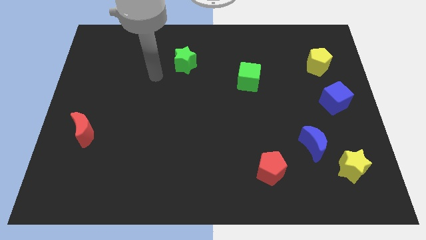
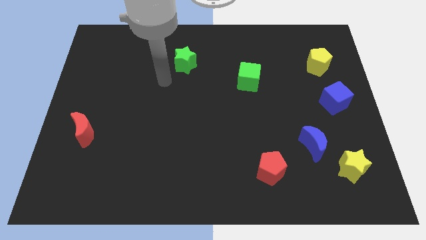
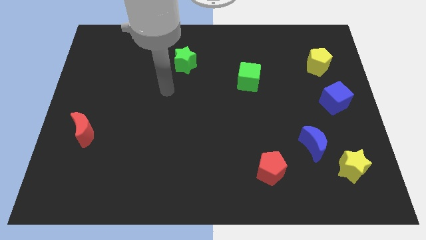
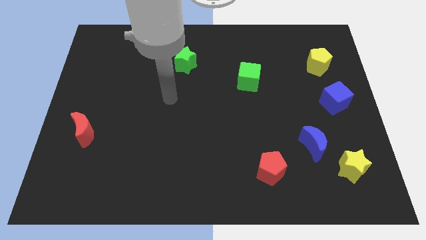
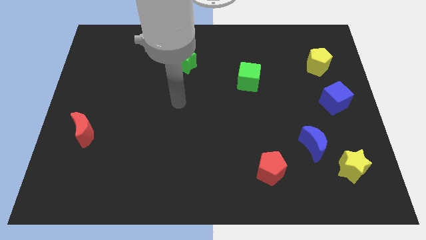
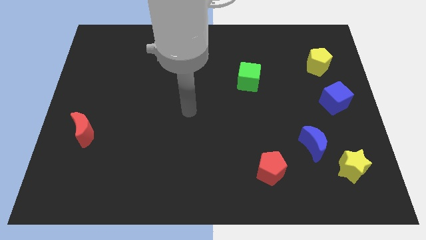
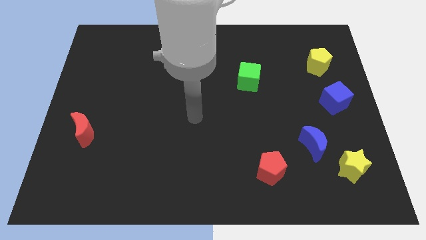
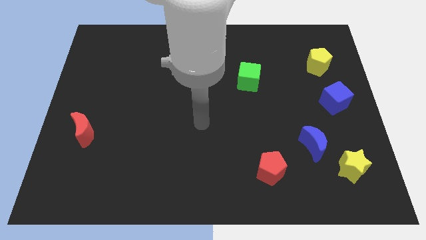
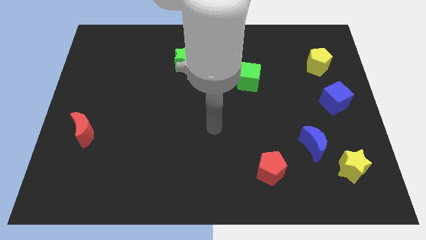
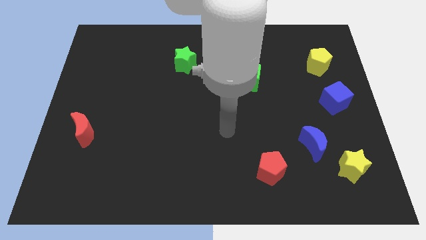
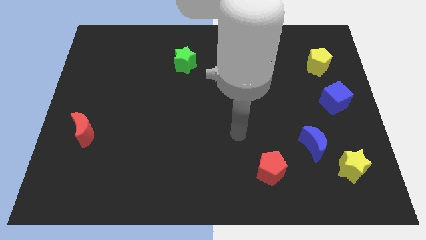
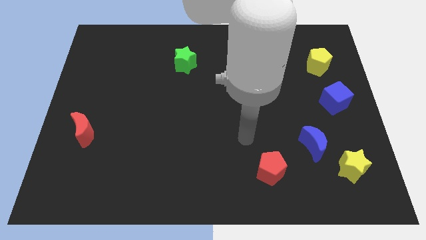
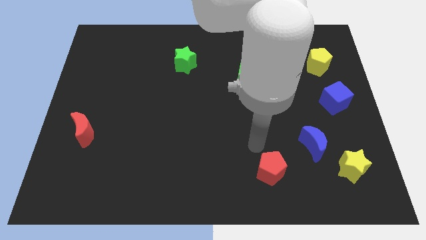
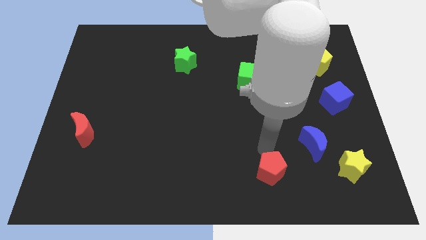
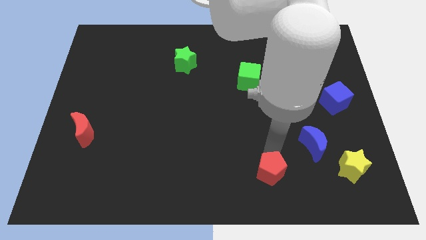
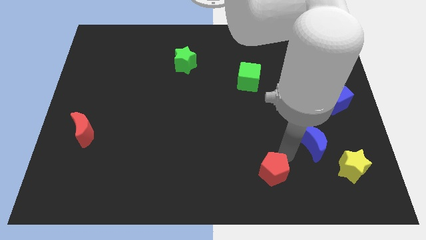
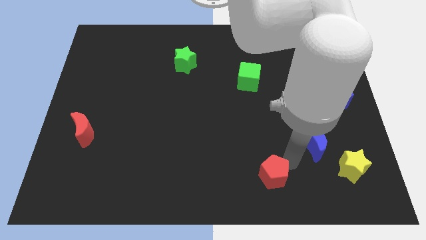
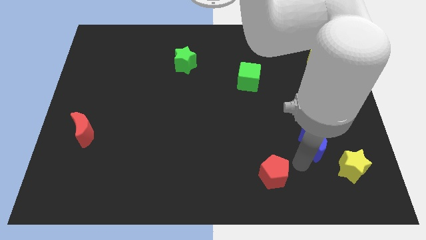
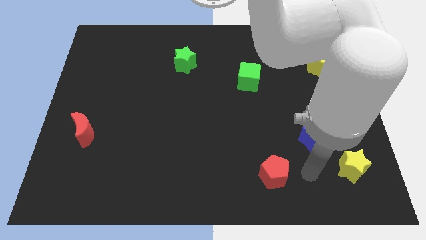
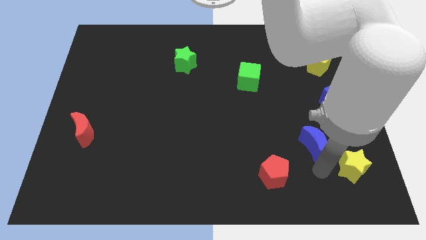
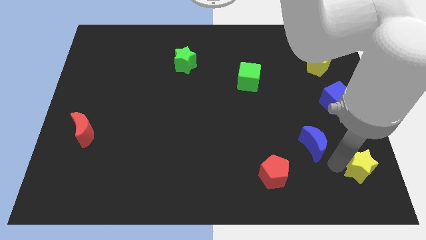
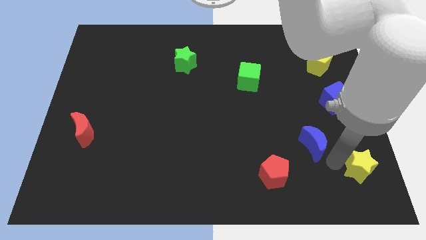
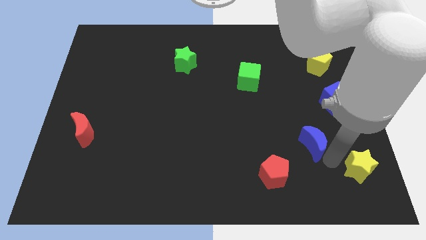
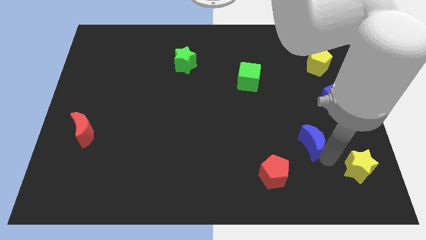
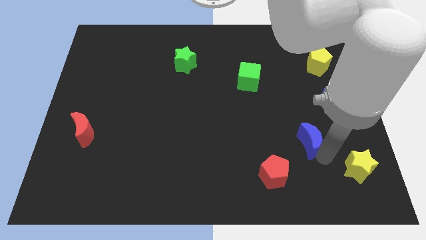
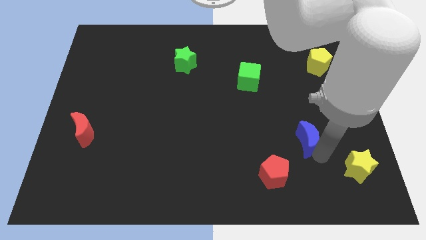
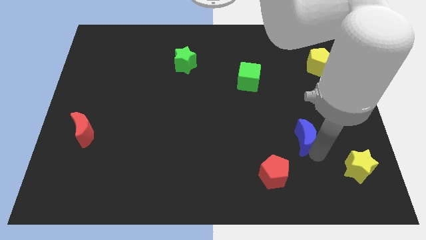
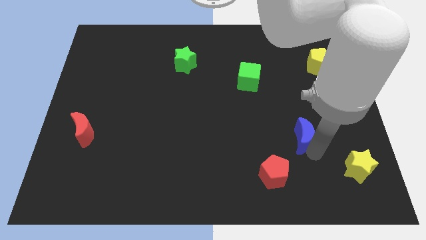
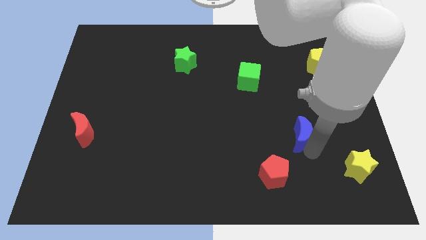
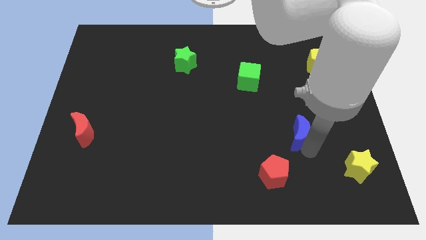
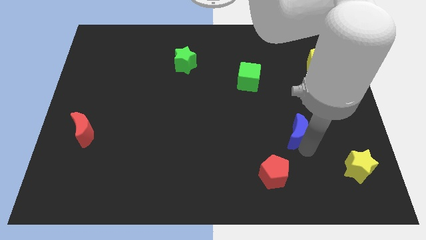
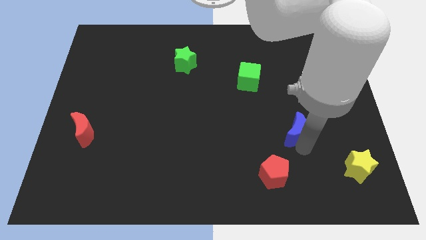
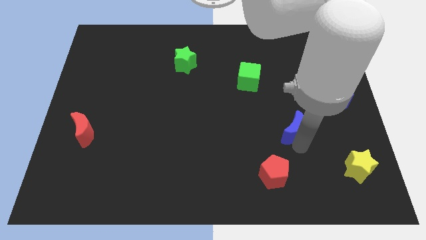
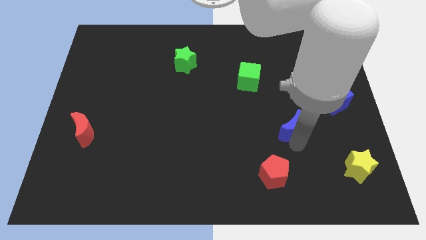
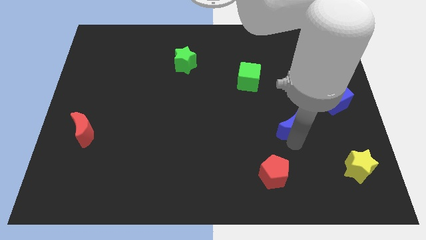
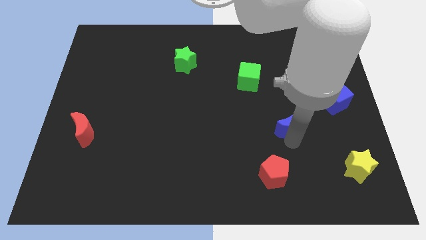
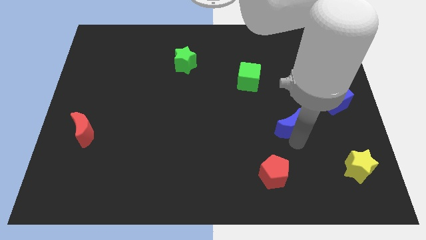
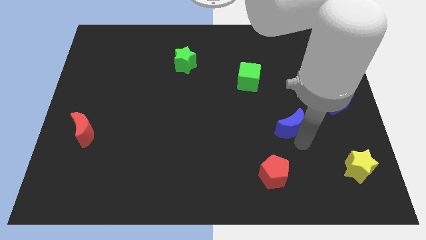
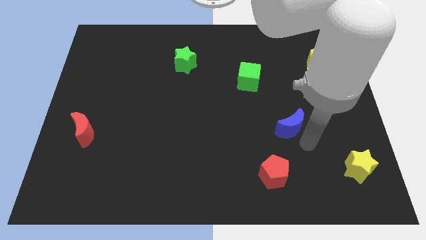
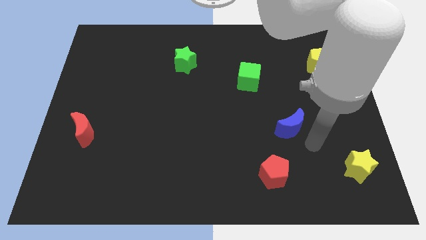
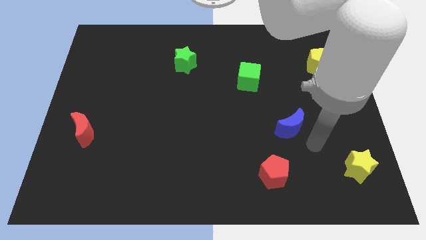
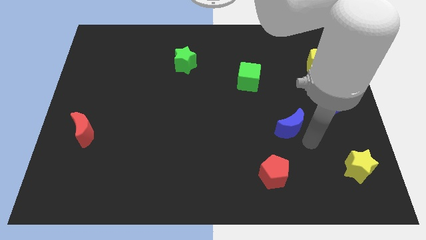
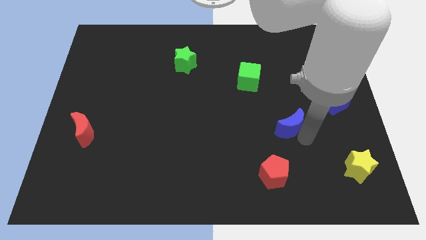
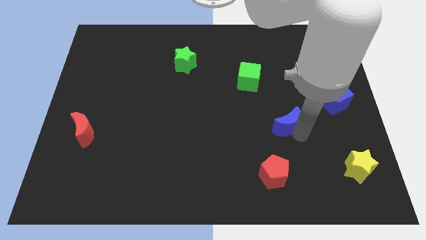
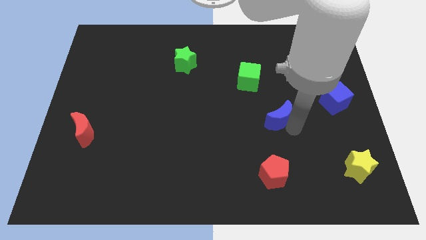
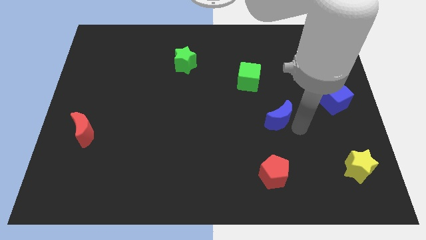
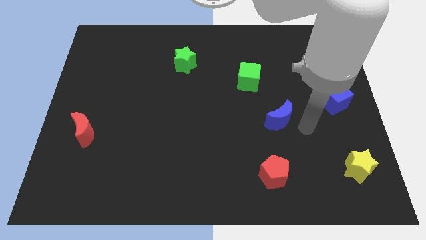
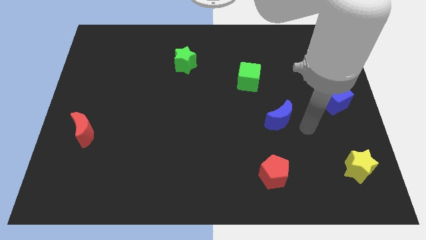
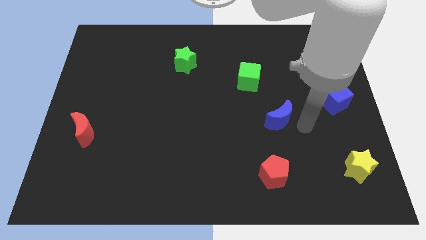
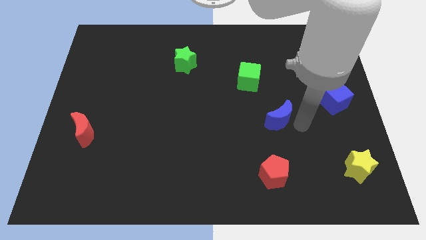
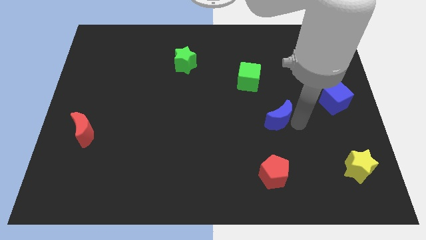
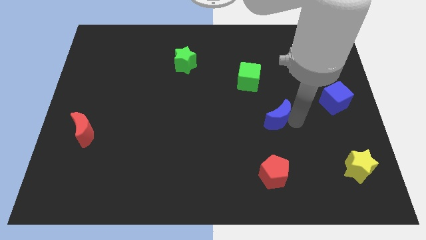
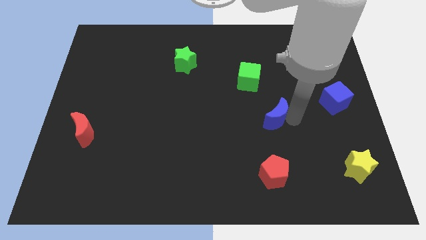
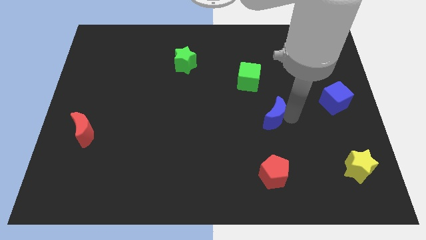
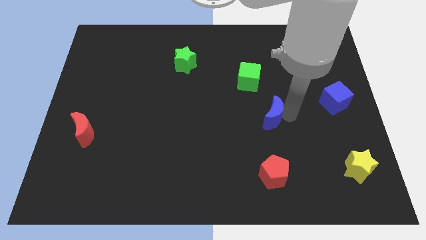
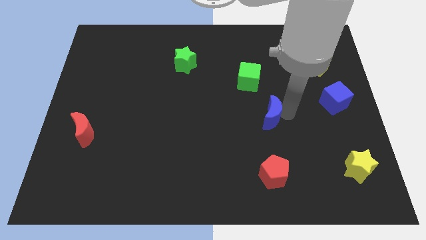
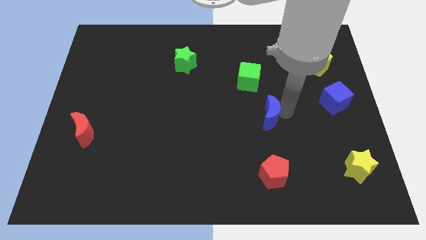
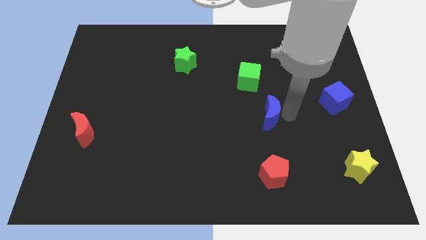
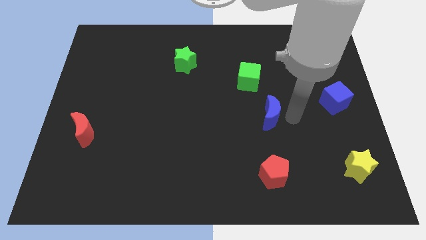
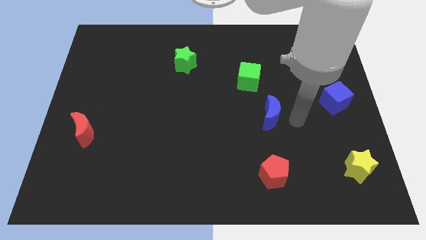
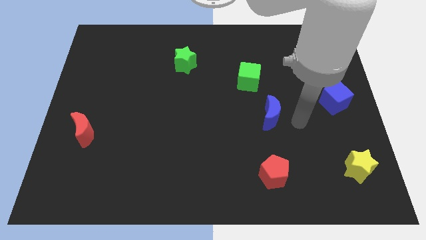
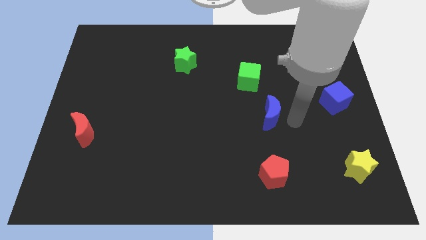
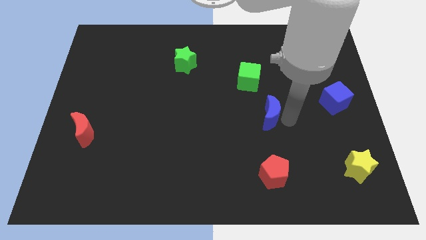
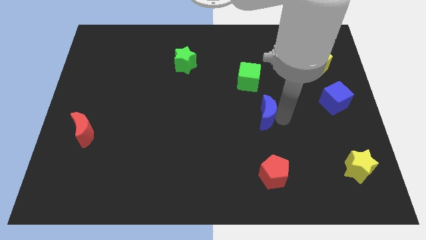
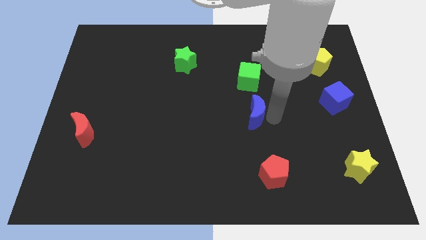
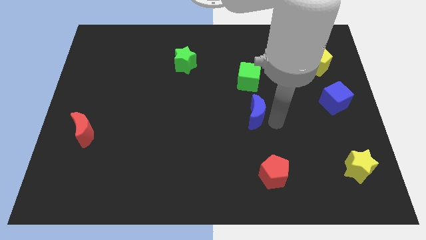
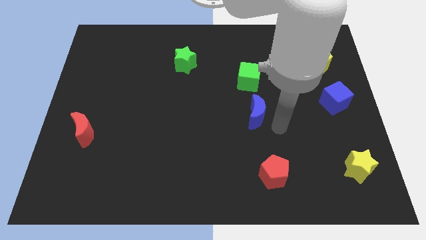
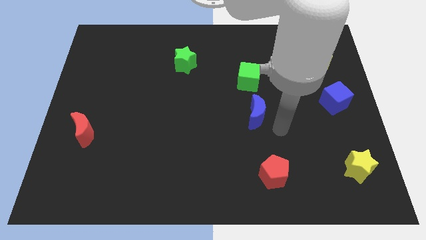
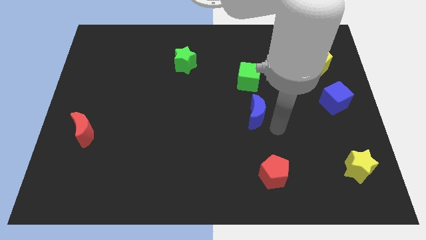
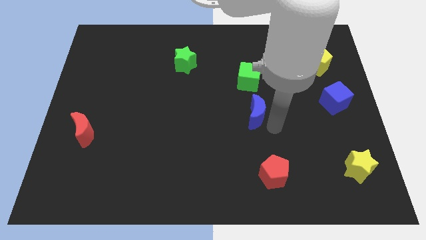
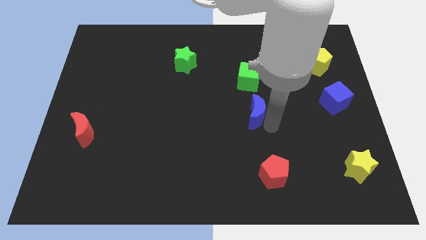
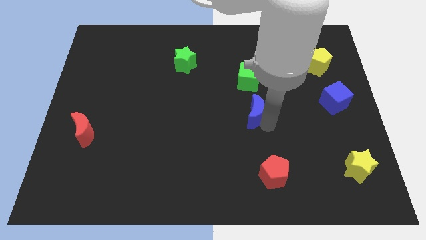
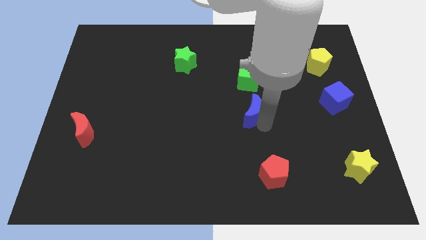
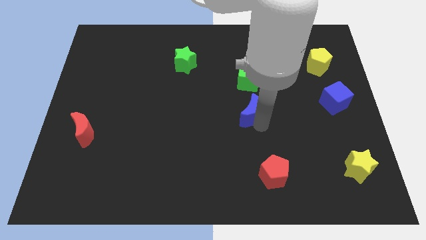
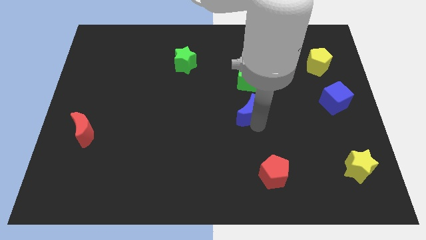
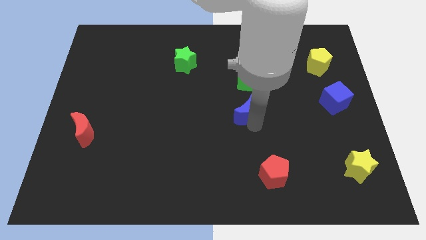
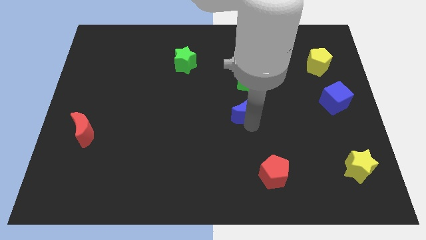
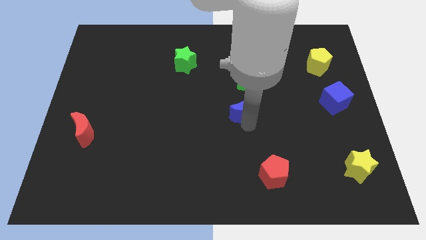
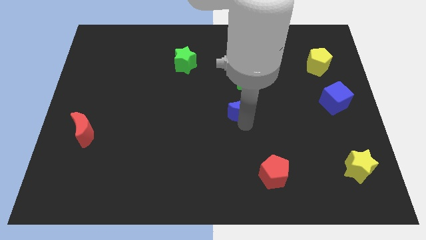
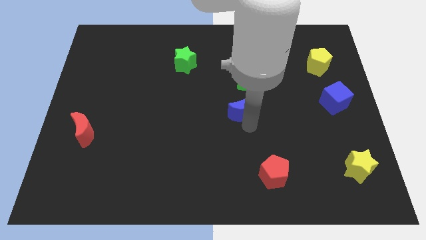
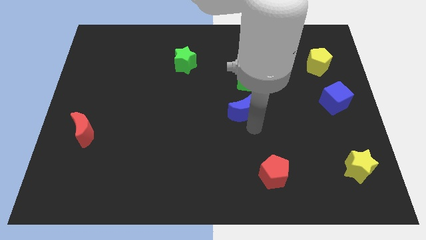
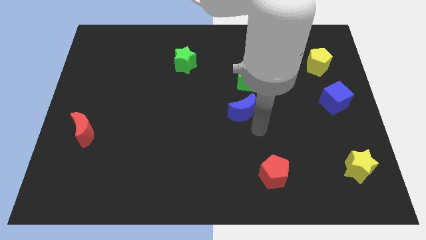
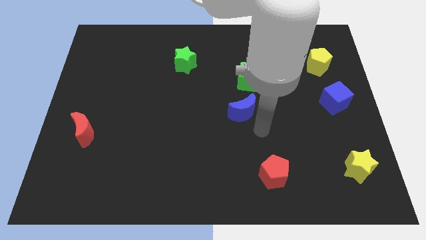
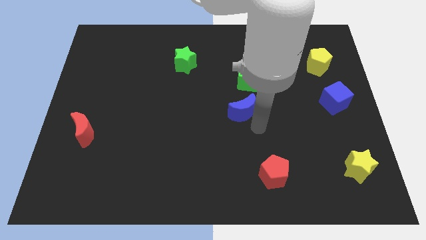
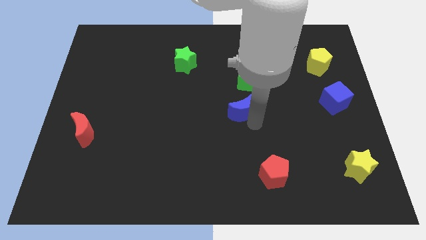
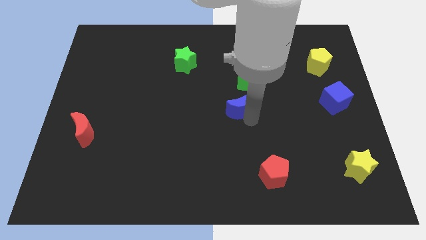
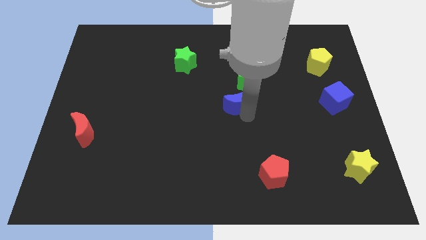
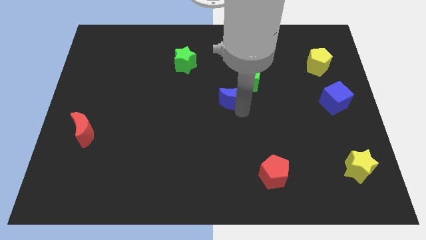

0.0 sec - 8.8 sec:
push the blue moon up and left diagonally
